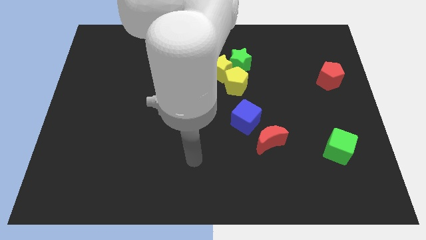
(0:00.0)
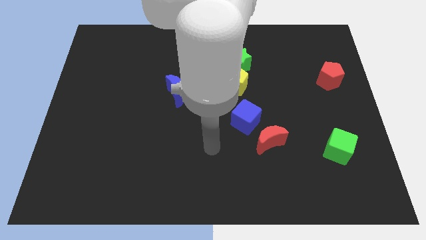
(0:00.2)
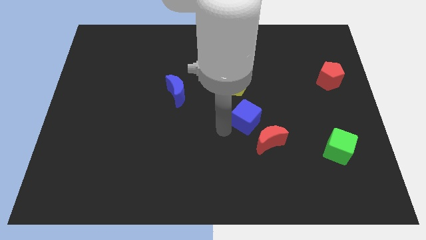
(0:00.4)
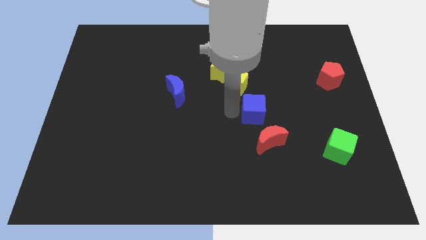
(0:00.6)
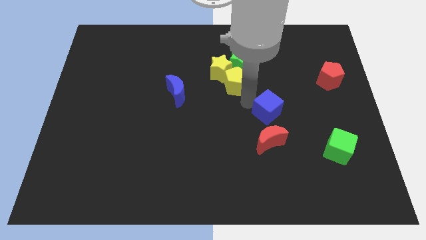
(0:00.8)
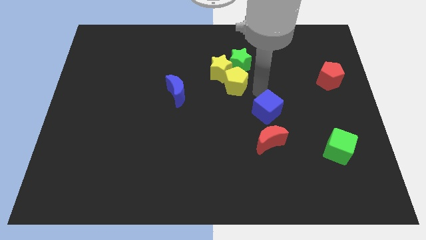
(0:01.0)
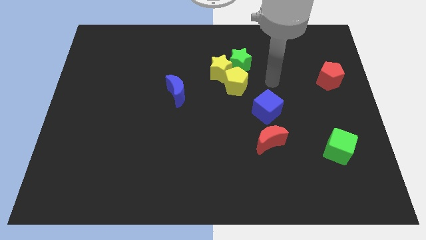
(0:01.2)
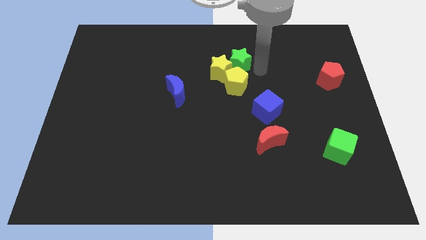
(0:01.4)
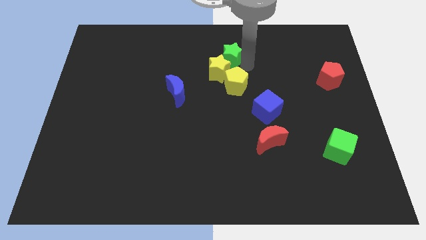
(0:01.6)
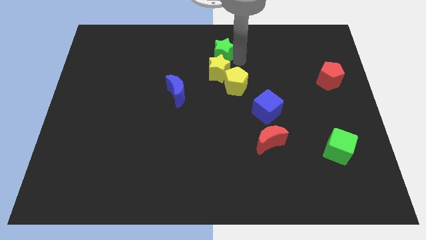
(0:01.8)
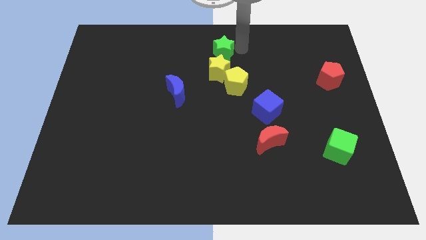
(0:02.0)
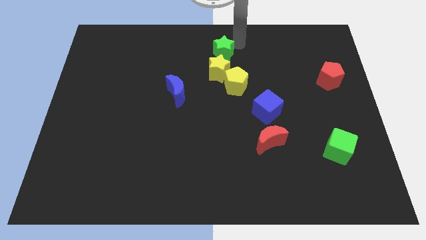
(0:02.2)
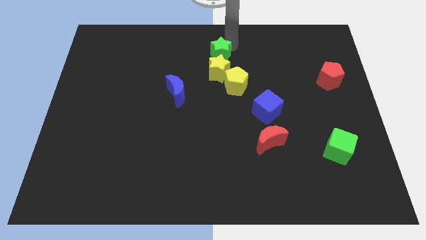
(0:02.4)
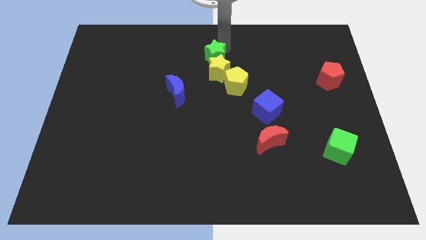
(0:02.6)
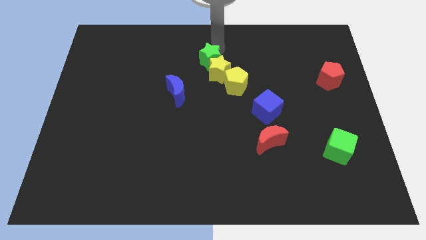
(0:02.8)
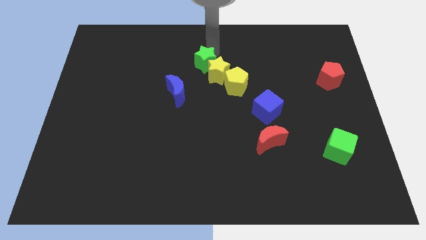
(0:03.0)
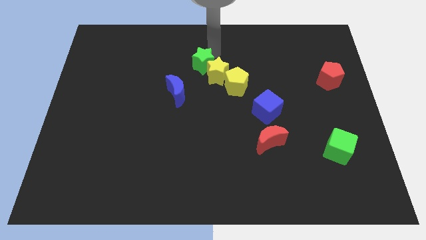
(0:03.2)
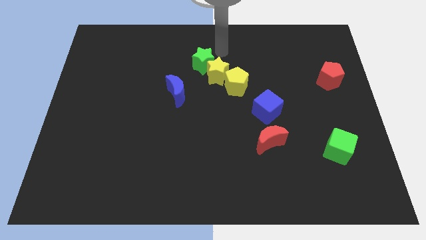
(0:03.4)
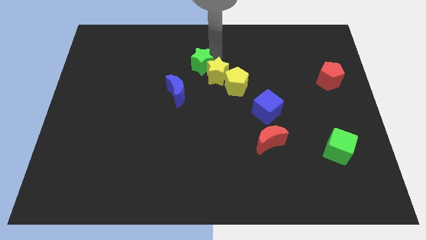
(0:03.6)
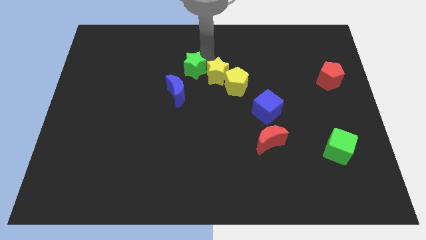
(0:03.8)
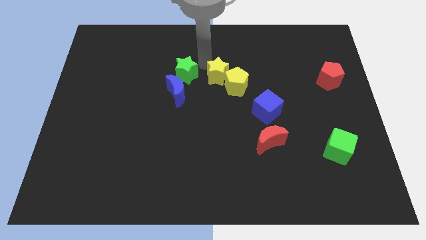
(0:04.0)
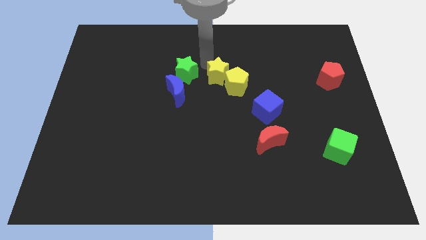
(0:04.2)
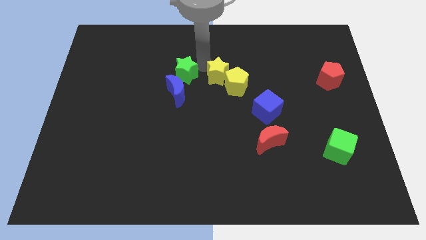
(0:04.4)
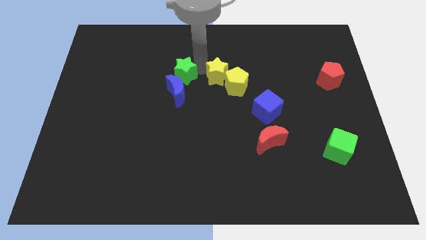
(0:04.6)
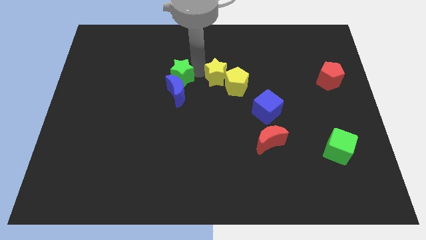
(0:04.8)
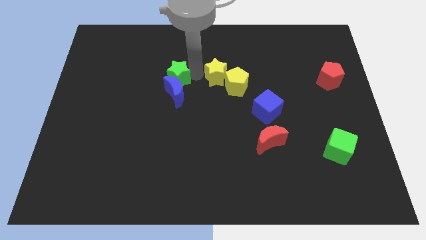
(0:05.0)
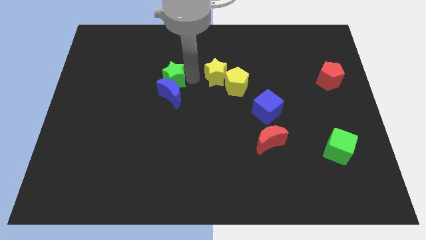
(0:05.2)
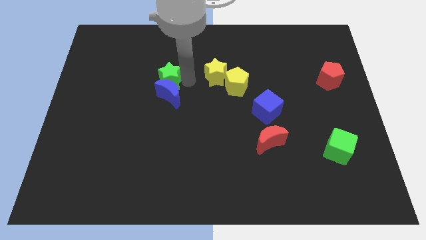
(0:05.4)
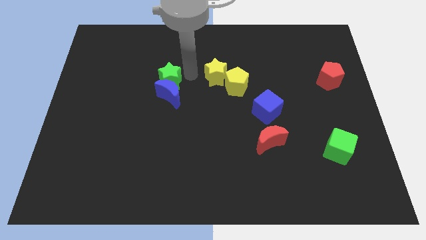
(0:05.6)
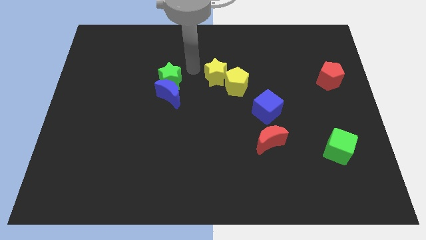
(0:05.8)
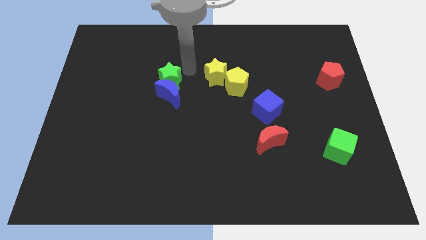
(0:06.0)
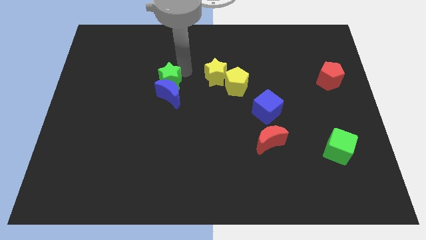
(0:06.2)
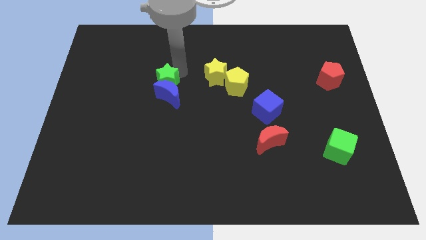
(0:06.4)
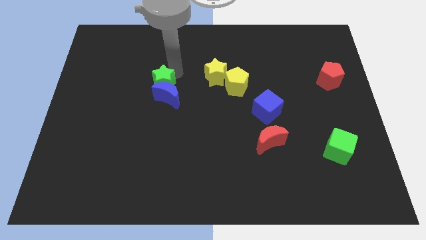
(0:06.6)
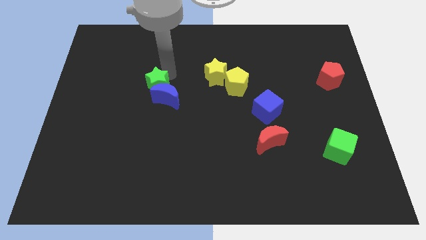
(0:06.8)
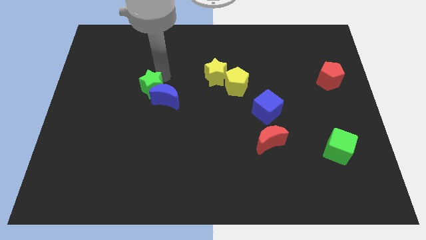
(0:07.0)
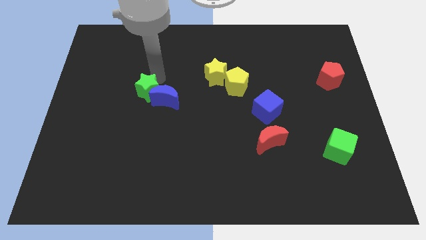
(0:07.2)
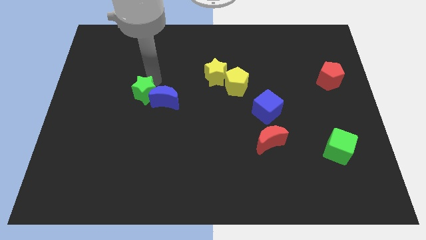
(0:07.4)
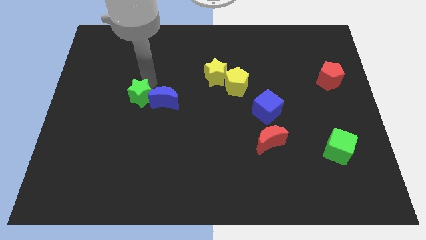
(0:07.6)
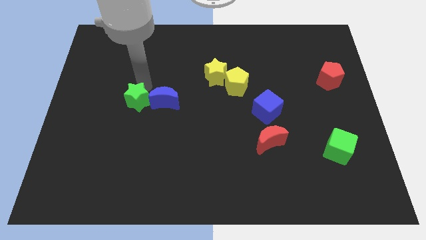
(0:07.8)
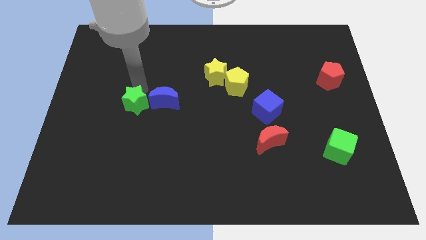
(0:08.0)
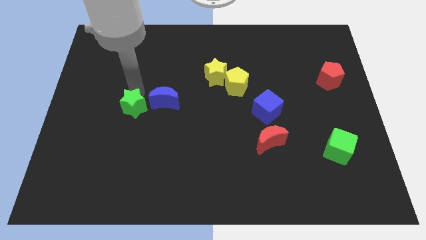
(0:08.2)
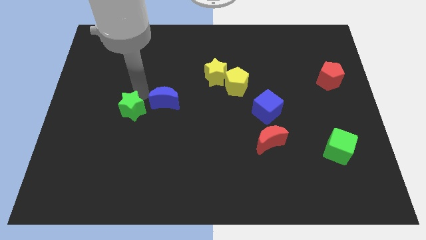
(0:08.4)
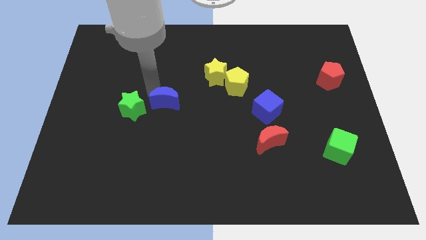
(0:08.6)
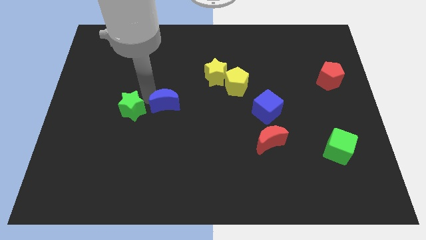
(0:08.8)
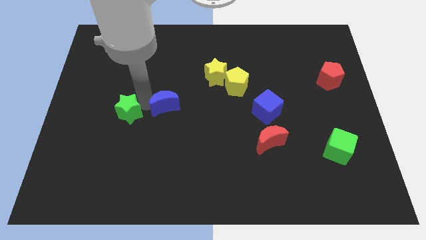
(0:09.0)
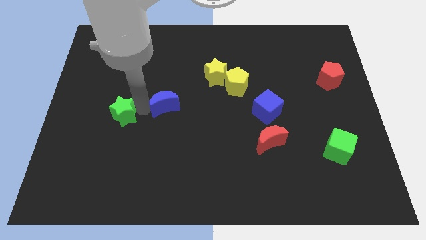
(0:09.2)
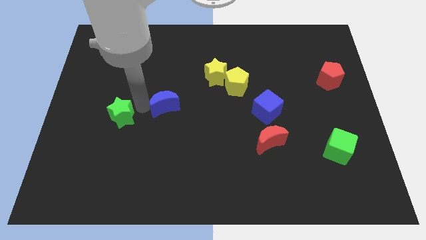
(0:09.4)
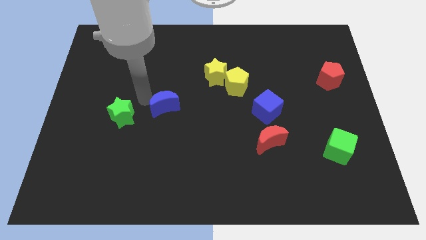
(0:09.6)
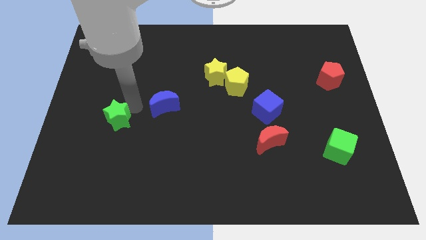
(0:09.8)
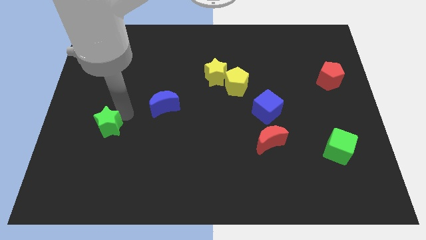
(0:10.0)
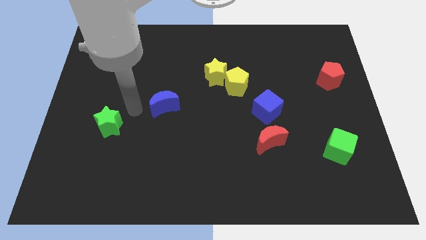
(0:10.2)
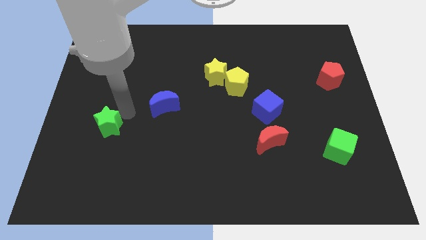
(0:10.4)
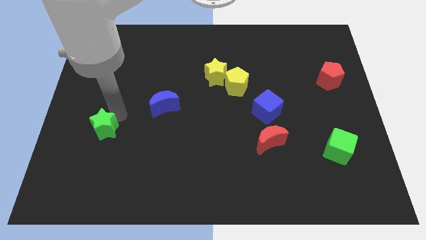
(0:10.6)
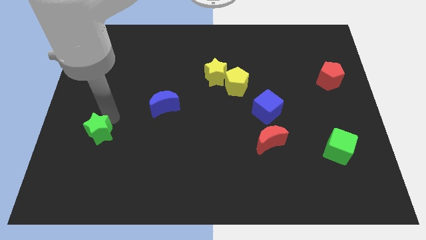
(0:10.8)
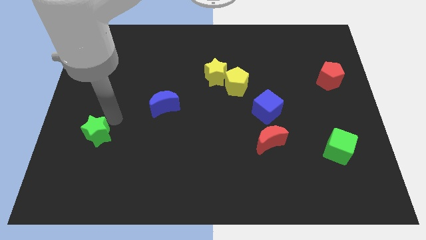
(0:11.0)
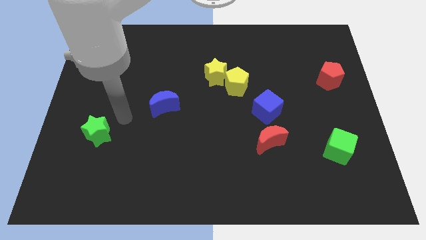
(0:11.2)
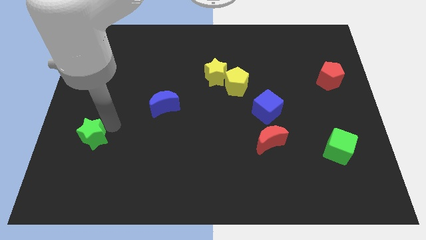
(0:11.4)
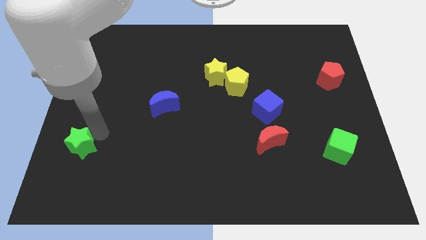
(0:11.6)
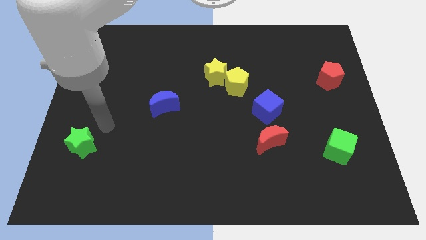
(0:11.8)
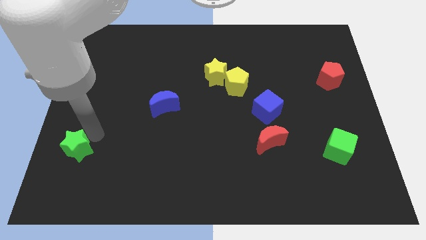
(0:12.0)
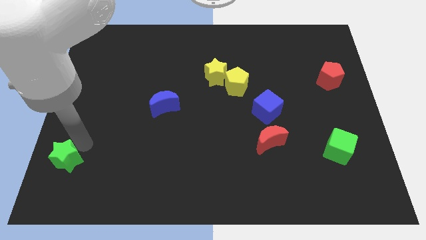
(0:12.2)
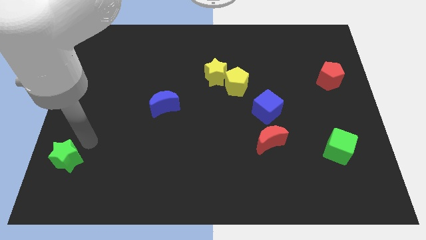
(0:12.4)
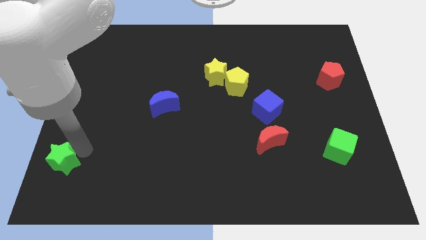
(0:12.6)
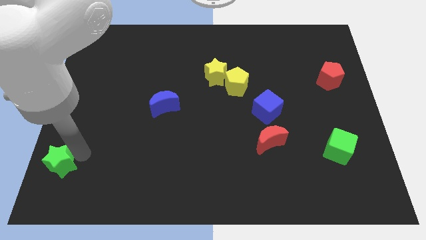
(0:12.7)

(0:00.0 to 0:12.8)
put the green star to the bottom left of the board
